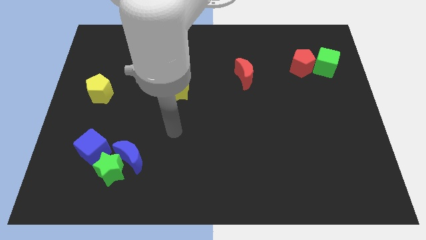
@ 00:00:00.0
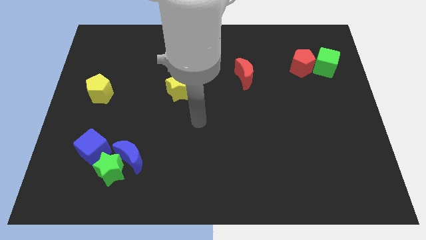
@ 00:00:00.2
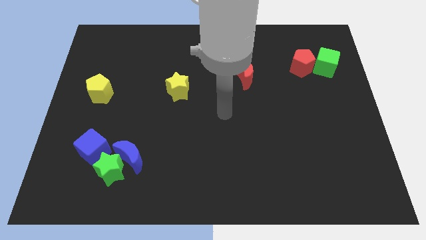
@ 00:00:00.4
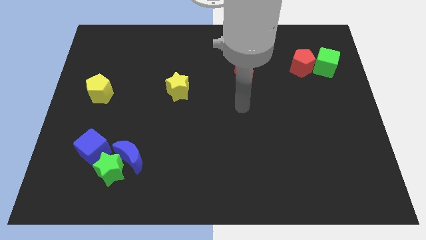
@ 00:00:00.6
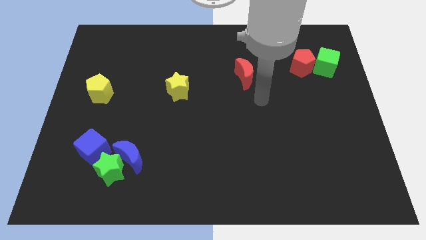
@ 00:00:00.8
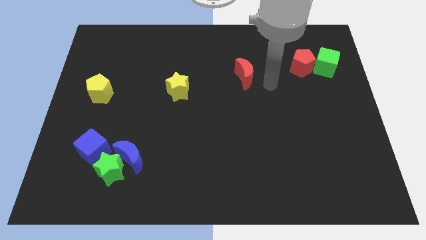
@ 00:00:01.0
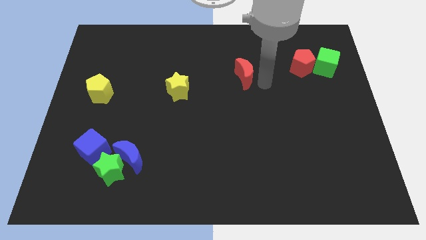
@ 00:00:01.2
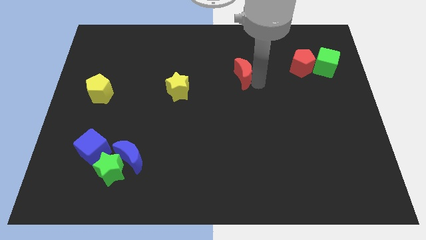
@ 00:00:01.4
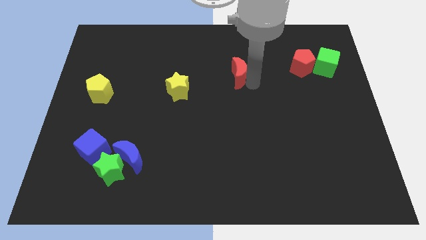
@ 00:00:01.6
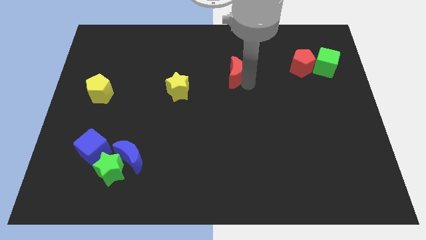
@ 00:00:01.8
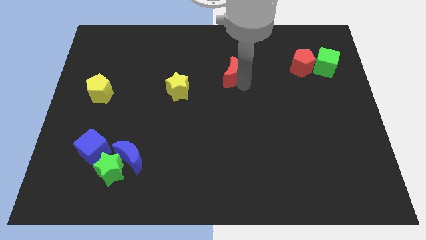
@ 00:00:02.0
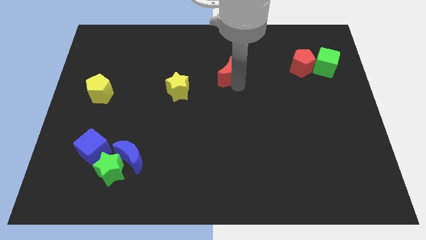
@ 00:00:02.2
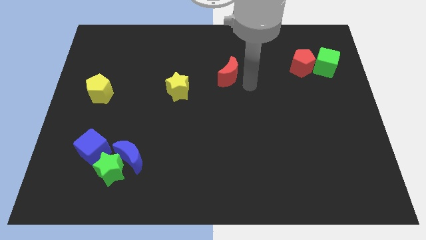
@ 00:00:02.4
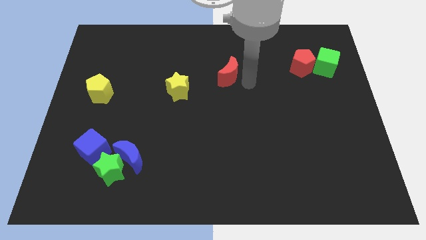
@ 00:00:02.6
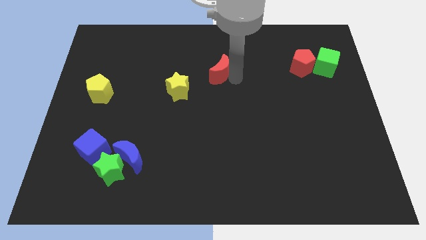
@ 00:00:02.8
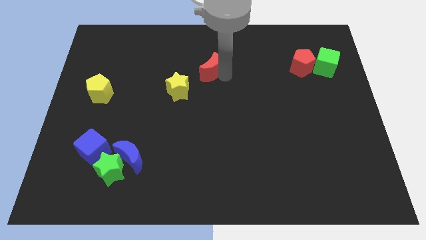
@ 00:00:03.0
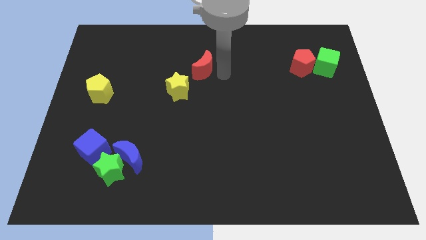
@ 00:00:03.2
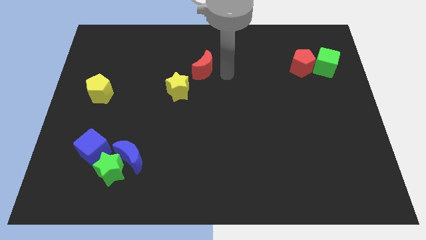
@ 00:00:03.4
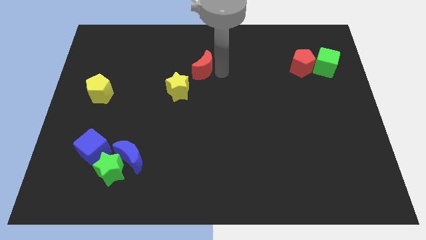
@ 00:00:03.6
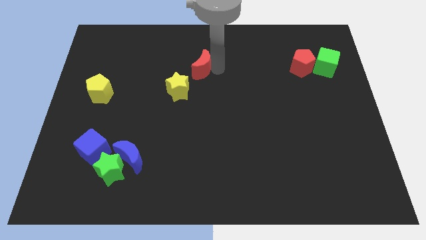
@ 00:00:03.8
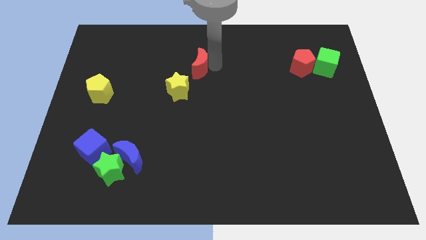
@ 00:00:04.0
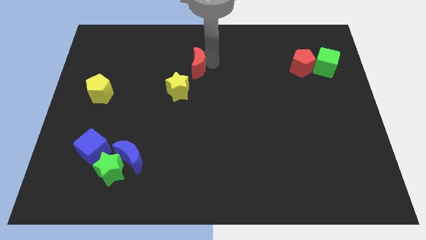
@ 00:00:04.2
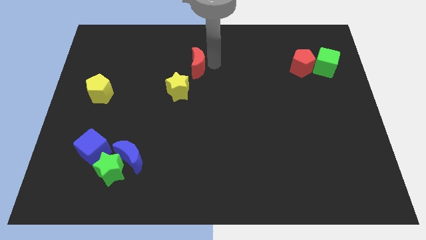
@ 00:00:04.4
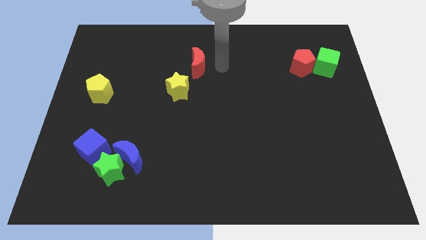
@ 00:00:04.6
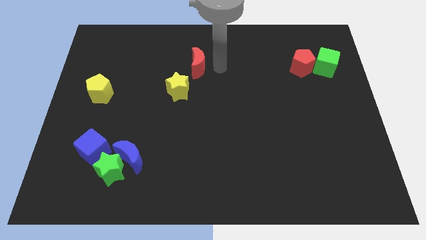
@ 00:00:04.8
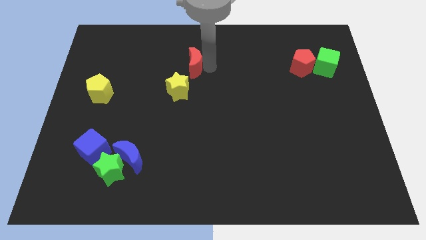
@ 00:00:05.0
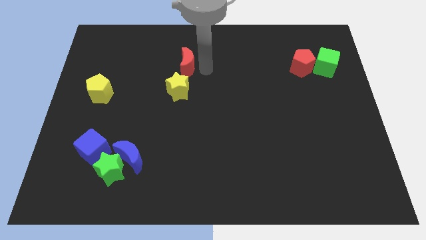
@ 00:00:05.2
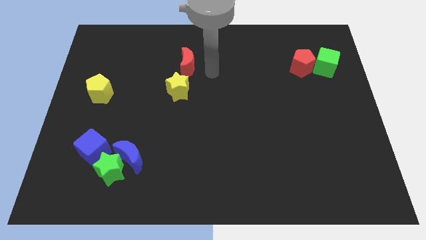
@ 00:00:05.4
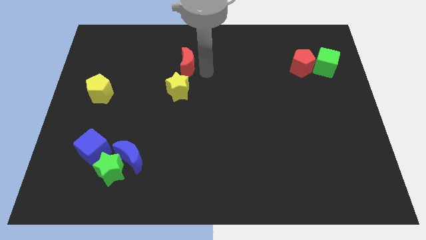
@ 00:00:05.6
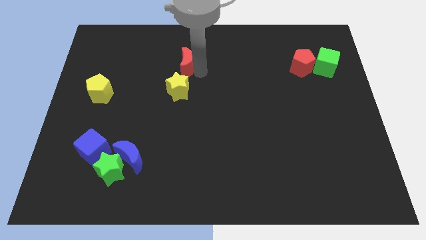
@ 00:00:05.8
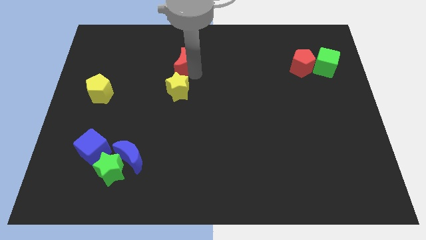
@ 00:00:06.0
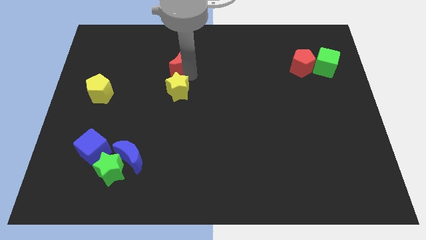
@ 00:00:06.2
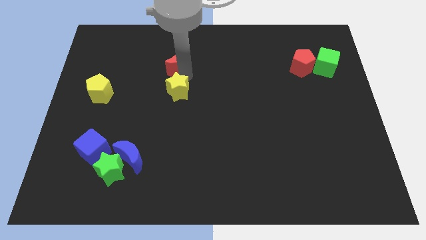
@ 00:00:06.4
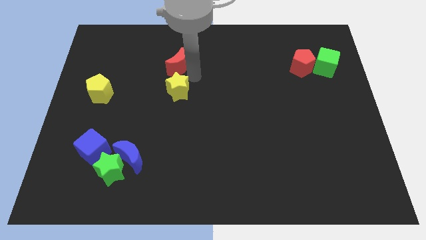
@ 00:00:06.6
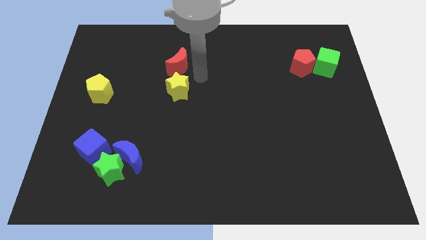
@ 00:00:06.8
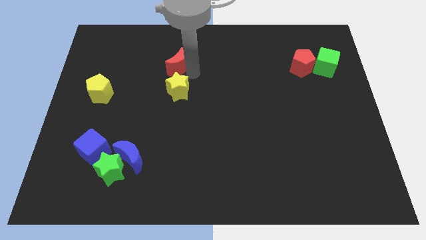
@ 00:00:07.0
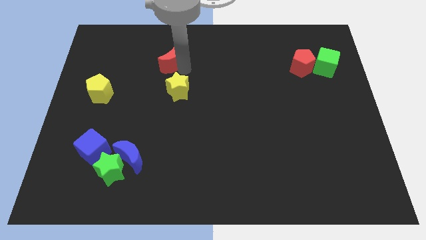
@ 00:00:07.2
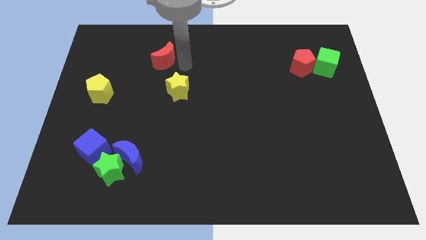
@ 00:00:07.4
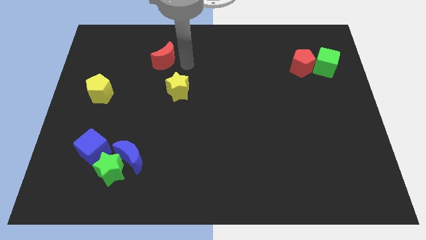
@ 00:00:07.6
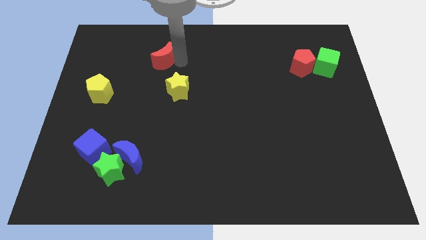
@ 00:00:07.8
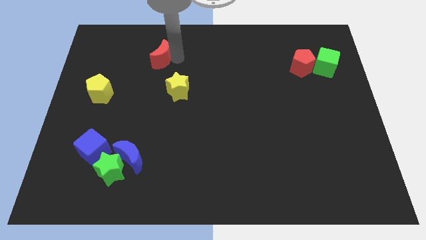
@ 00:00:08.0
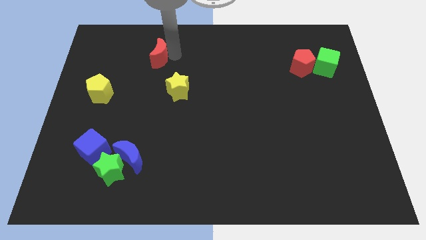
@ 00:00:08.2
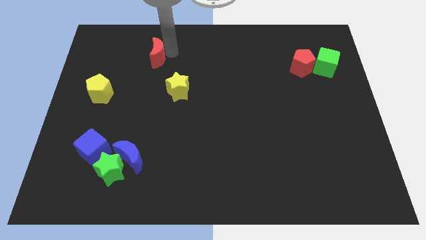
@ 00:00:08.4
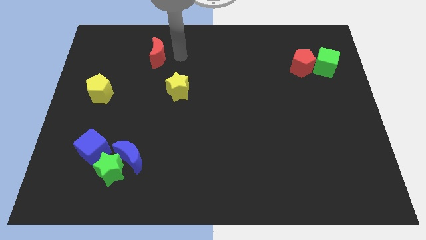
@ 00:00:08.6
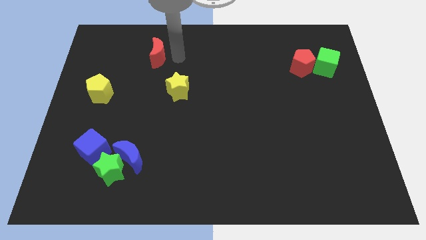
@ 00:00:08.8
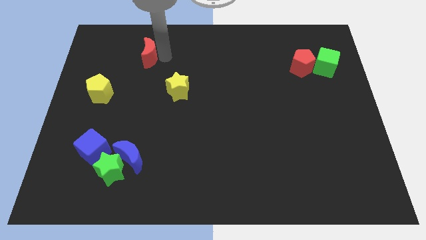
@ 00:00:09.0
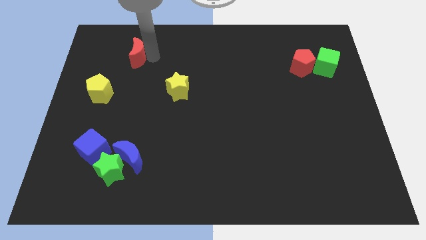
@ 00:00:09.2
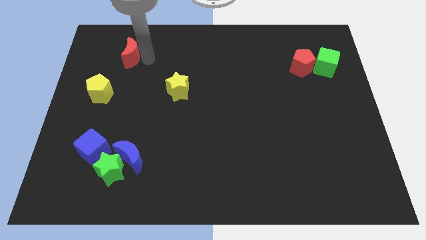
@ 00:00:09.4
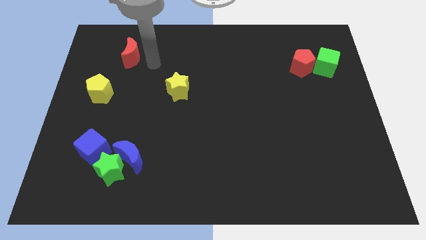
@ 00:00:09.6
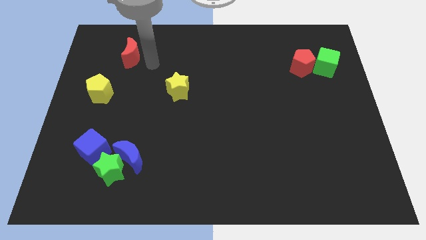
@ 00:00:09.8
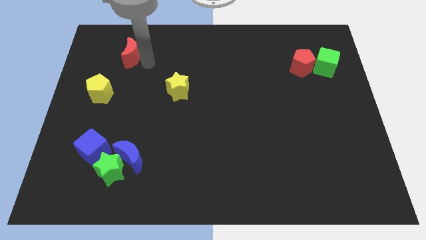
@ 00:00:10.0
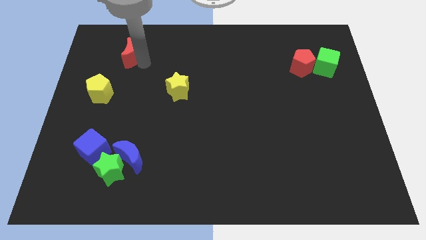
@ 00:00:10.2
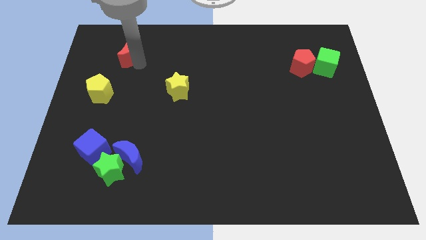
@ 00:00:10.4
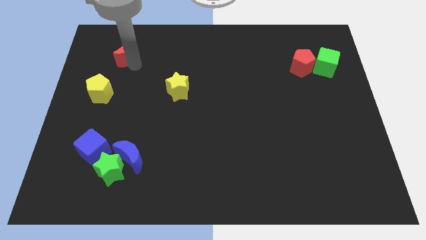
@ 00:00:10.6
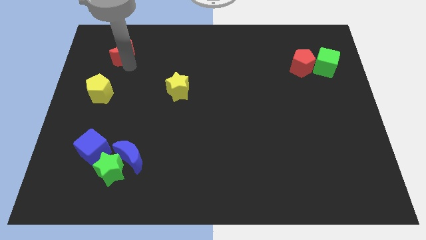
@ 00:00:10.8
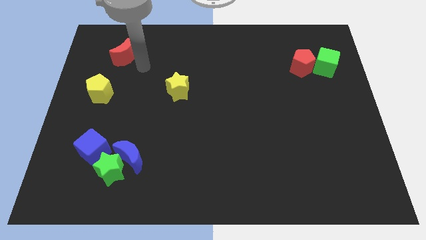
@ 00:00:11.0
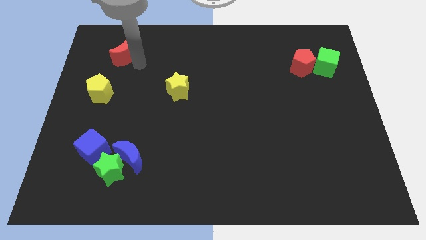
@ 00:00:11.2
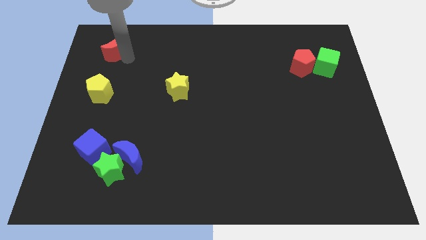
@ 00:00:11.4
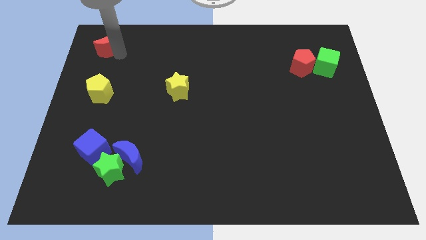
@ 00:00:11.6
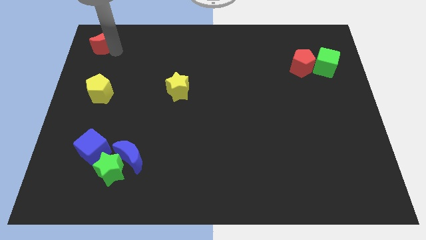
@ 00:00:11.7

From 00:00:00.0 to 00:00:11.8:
move the red moon to the top left of the board
